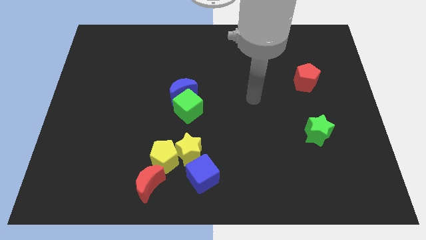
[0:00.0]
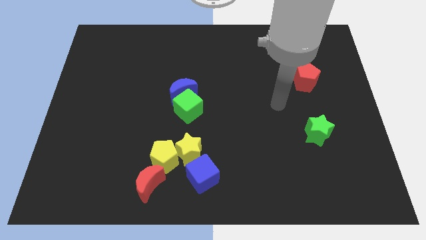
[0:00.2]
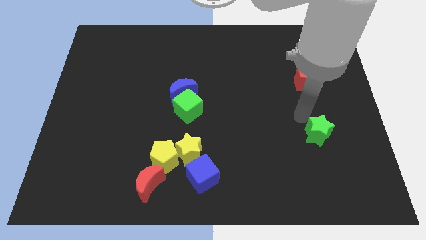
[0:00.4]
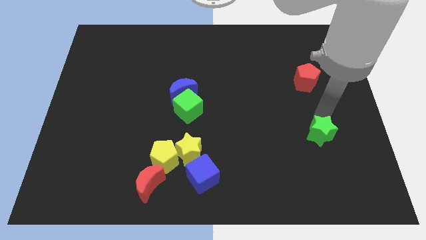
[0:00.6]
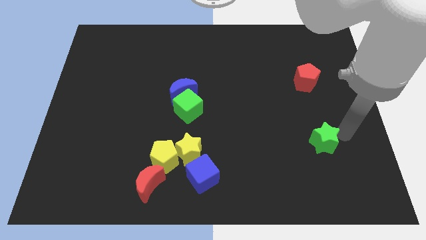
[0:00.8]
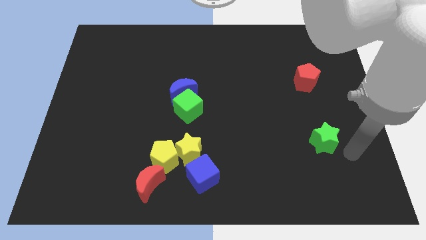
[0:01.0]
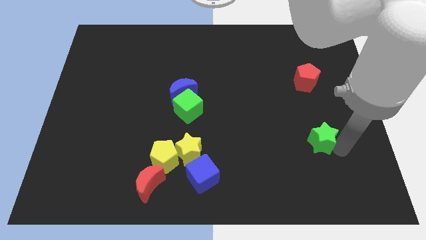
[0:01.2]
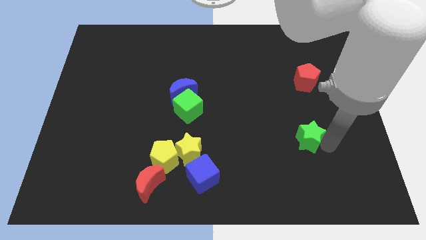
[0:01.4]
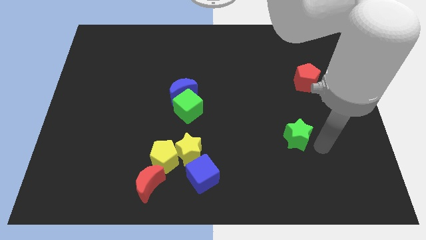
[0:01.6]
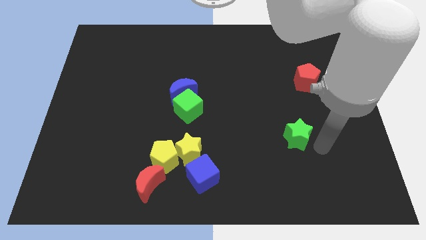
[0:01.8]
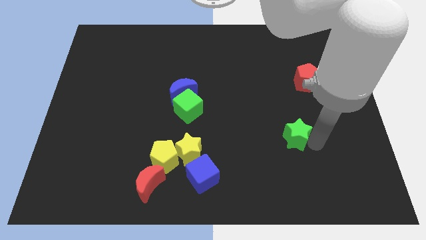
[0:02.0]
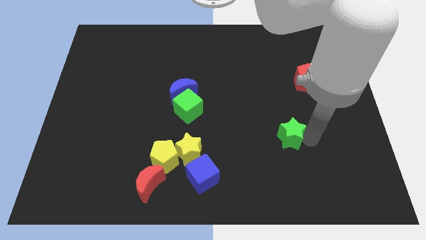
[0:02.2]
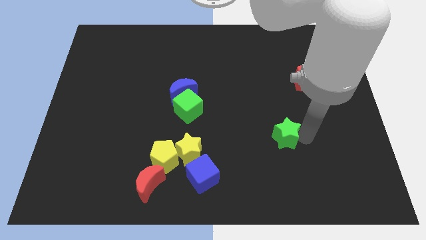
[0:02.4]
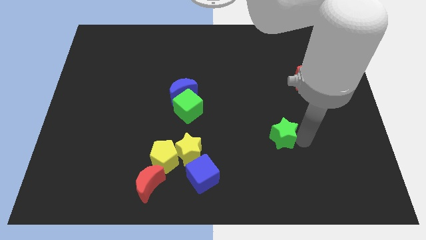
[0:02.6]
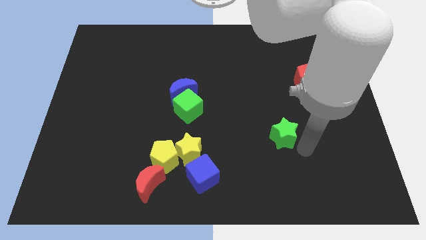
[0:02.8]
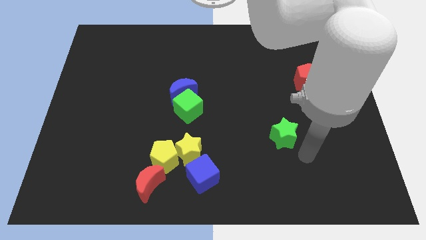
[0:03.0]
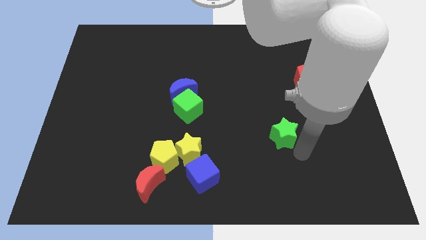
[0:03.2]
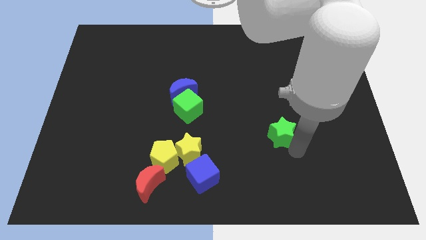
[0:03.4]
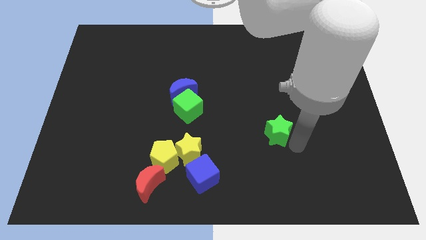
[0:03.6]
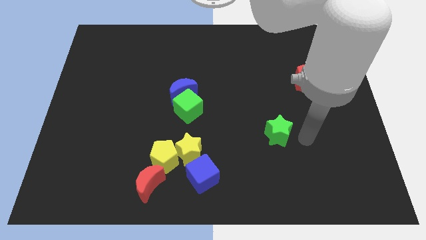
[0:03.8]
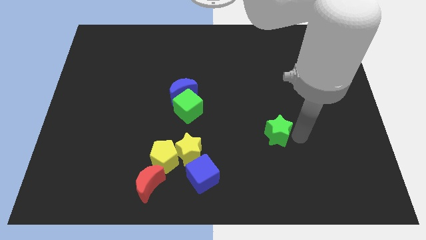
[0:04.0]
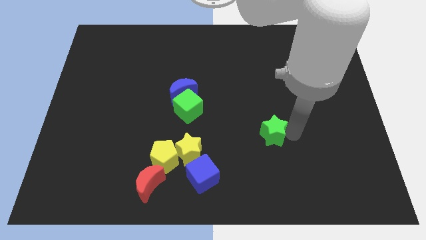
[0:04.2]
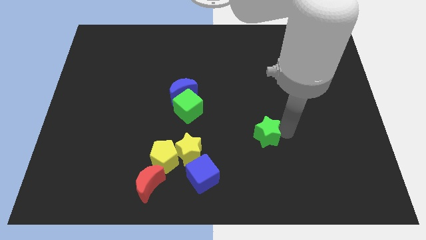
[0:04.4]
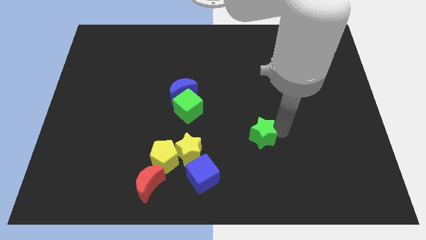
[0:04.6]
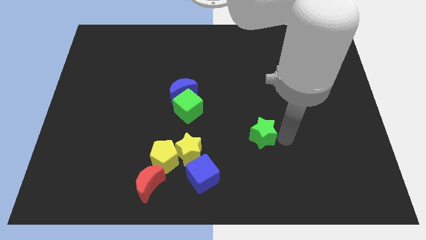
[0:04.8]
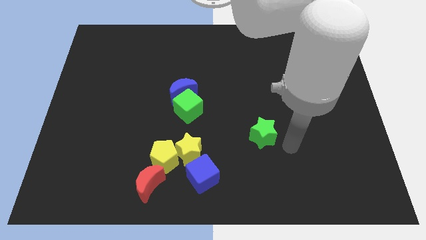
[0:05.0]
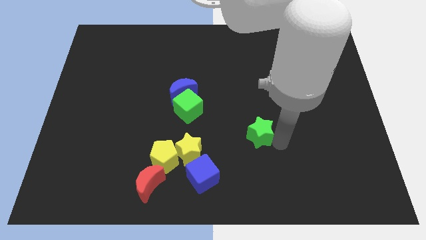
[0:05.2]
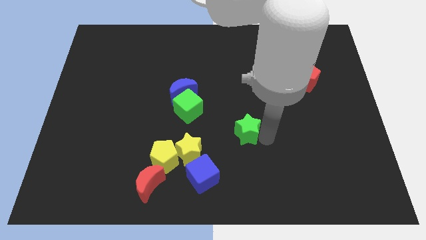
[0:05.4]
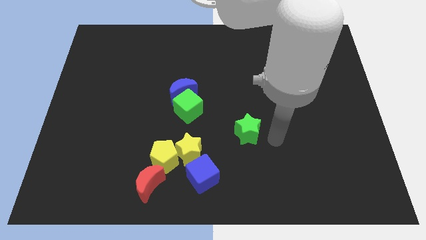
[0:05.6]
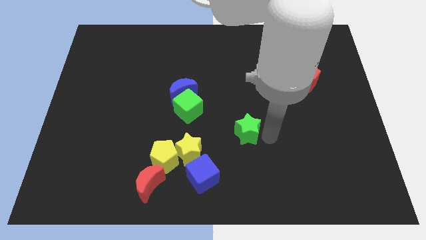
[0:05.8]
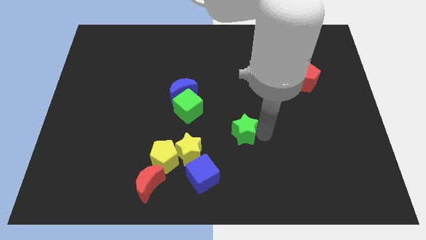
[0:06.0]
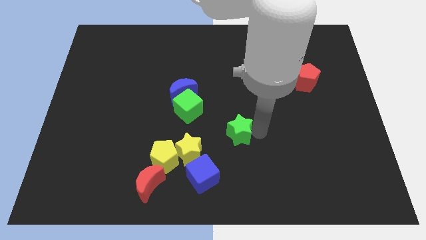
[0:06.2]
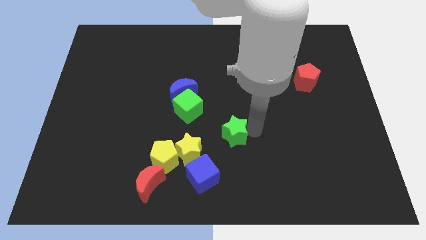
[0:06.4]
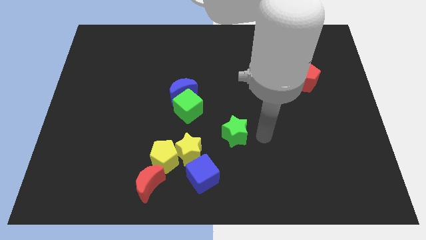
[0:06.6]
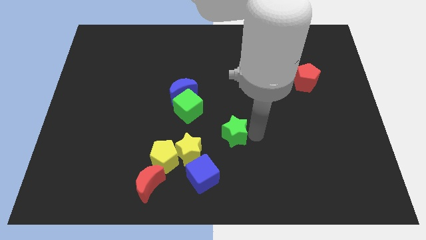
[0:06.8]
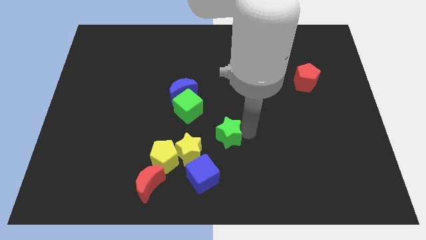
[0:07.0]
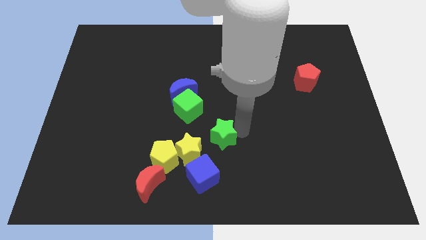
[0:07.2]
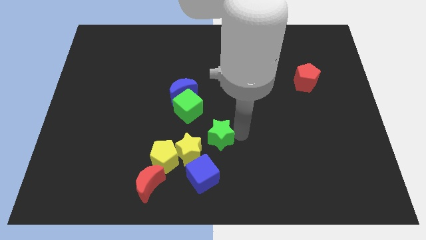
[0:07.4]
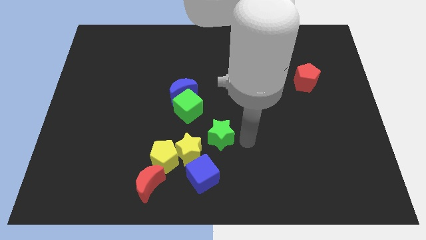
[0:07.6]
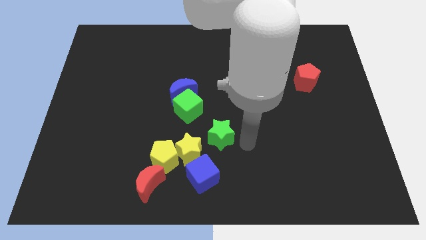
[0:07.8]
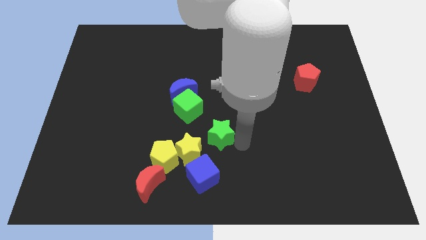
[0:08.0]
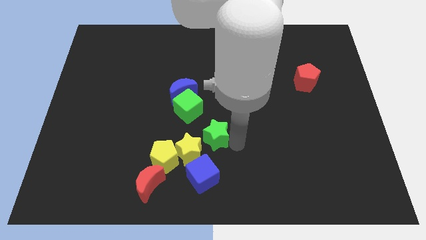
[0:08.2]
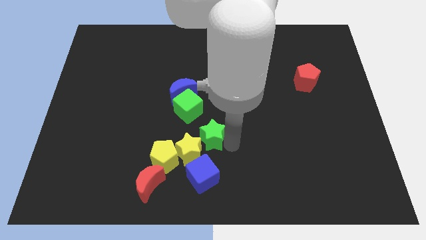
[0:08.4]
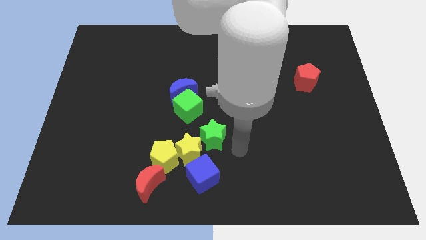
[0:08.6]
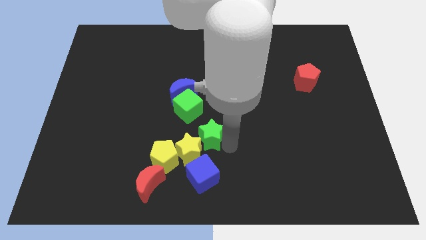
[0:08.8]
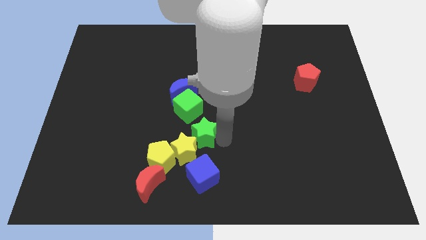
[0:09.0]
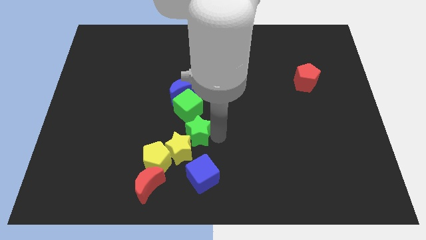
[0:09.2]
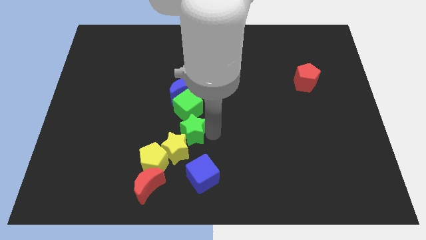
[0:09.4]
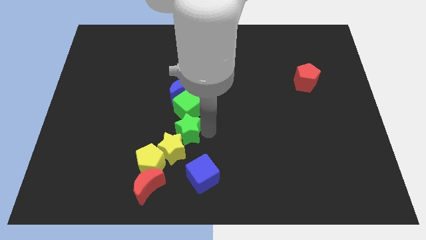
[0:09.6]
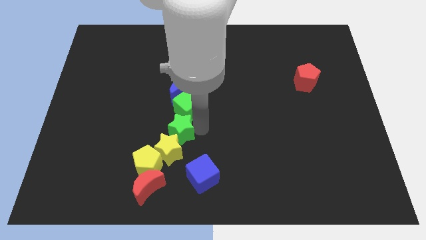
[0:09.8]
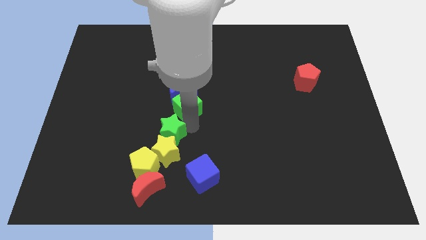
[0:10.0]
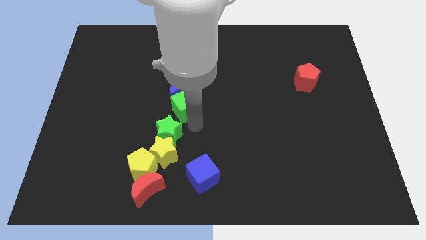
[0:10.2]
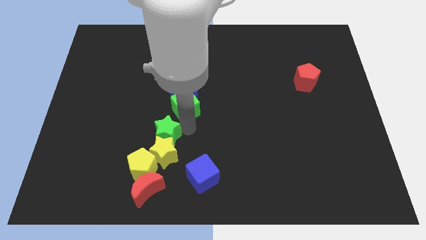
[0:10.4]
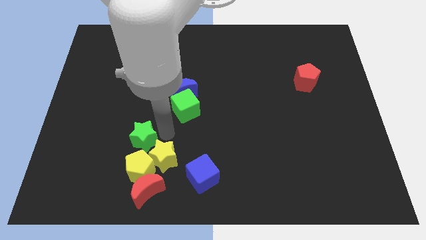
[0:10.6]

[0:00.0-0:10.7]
move the green star left of the yellow star

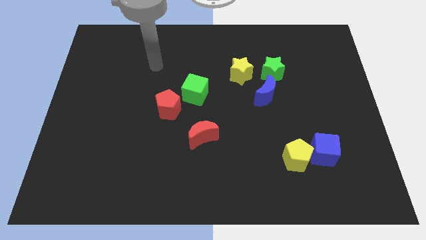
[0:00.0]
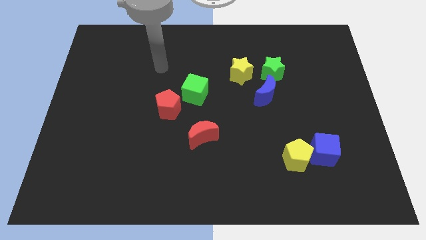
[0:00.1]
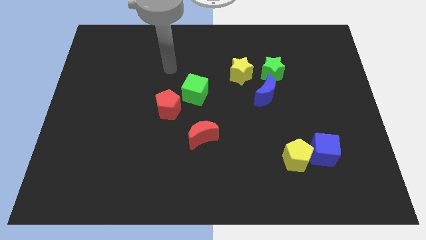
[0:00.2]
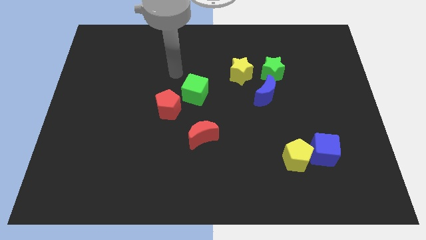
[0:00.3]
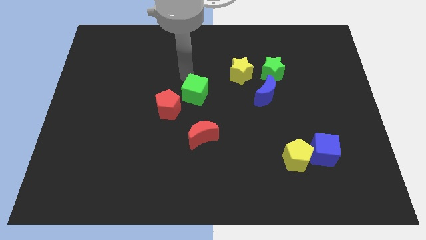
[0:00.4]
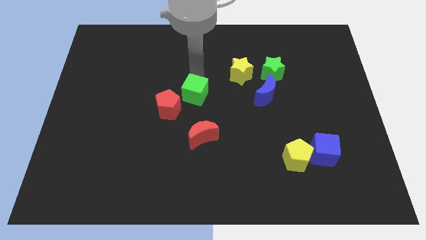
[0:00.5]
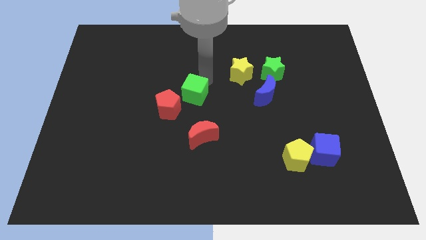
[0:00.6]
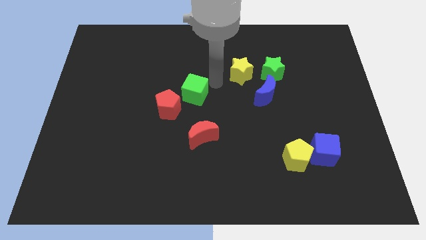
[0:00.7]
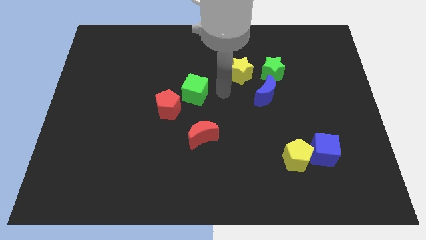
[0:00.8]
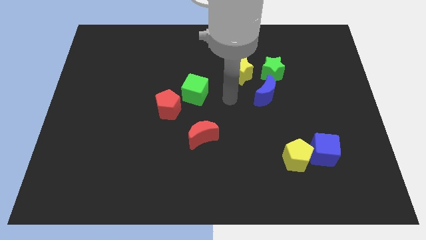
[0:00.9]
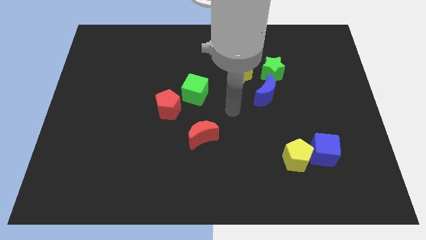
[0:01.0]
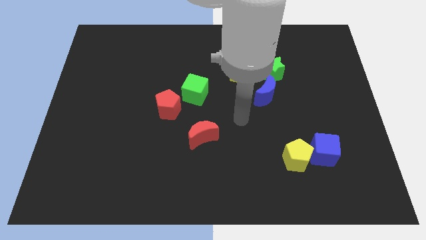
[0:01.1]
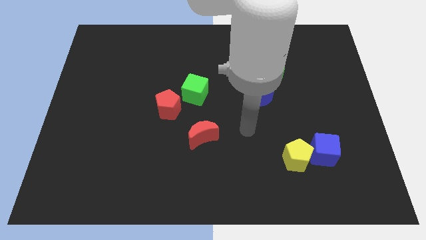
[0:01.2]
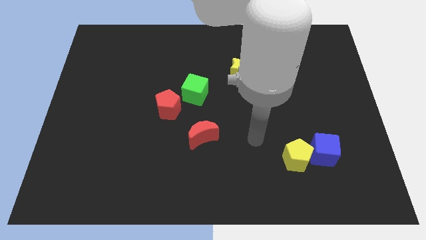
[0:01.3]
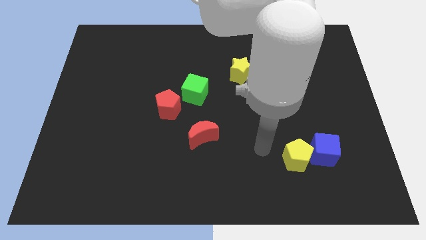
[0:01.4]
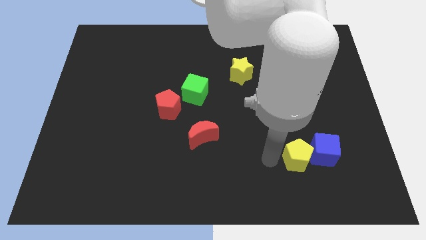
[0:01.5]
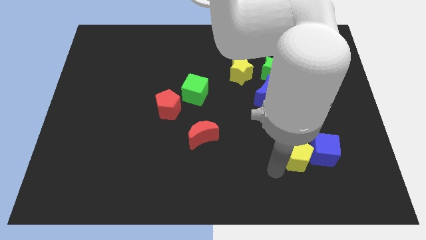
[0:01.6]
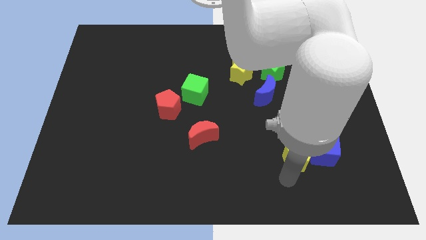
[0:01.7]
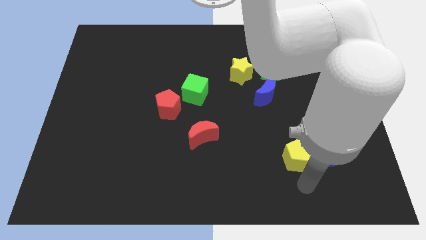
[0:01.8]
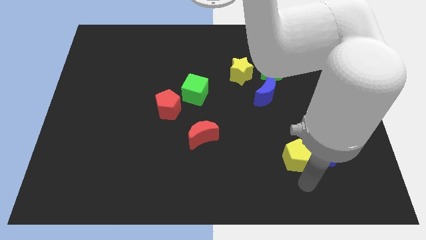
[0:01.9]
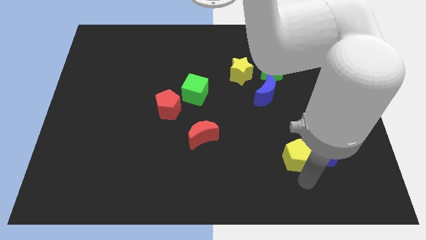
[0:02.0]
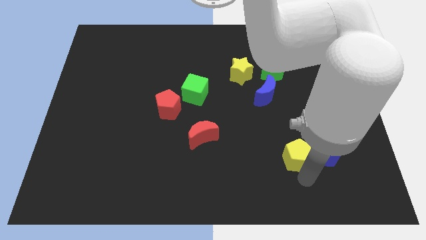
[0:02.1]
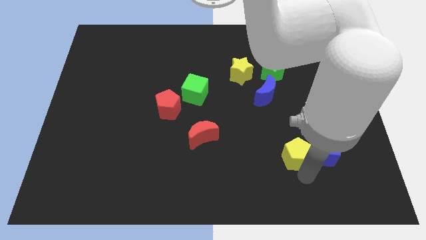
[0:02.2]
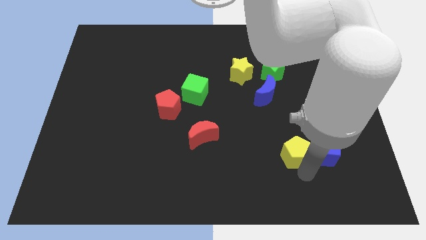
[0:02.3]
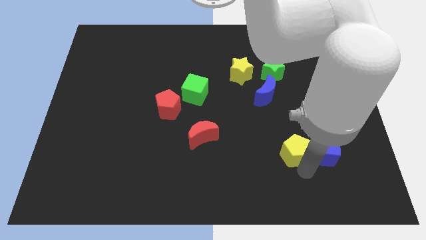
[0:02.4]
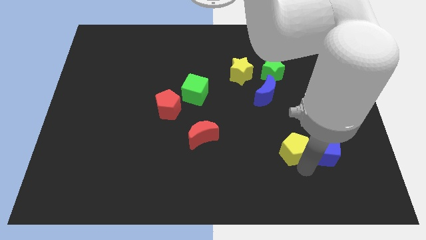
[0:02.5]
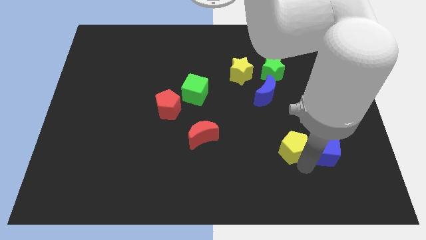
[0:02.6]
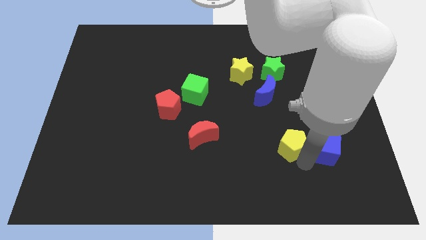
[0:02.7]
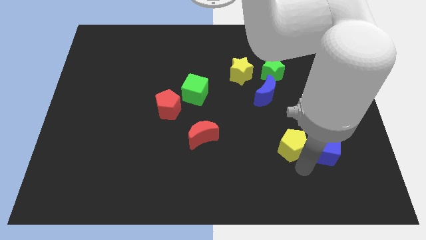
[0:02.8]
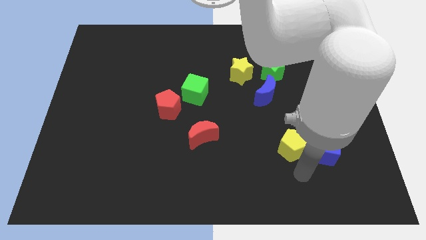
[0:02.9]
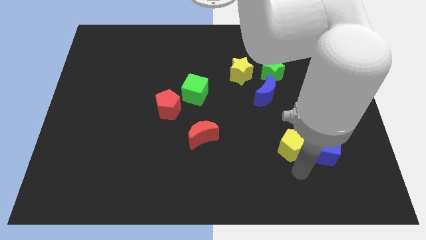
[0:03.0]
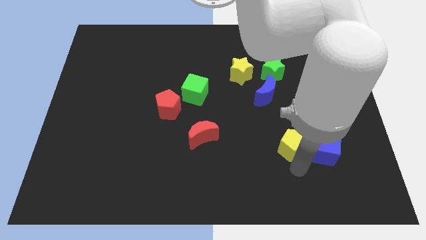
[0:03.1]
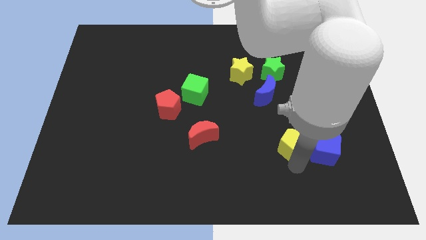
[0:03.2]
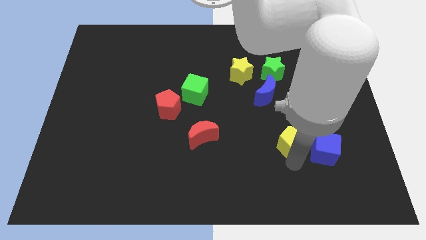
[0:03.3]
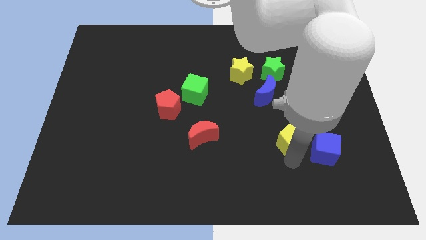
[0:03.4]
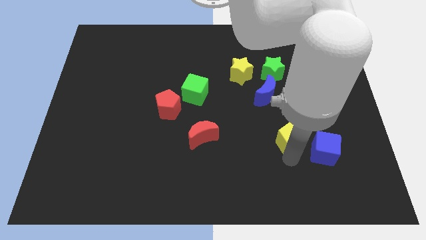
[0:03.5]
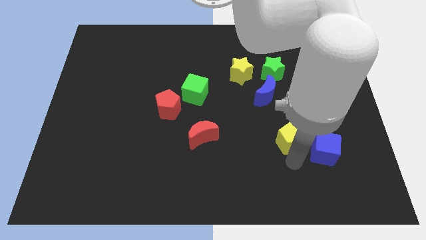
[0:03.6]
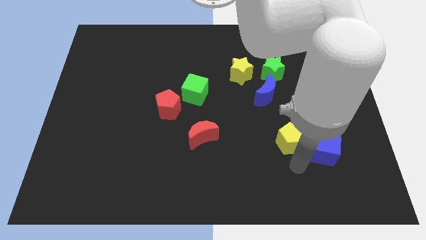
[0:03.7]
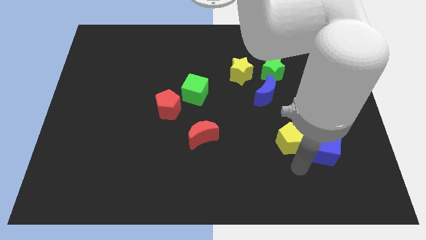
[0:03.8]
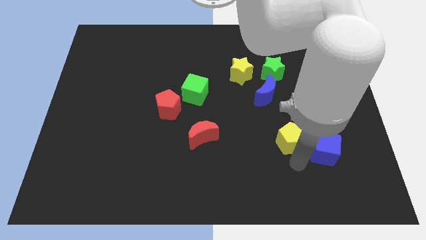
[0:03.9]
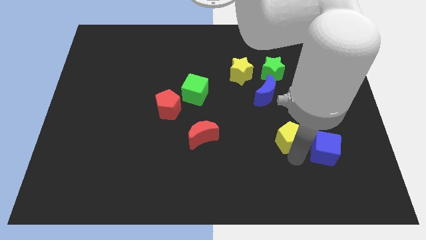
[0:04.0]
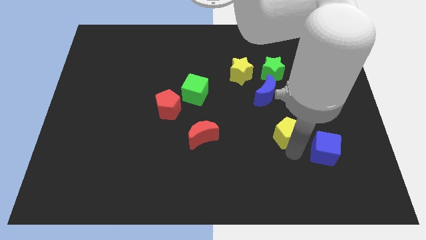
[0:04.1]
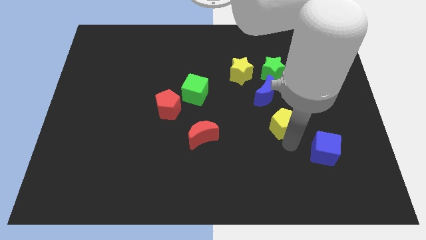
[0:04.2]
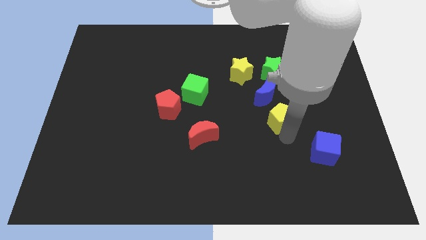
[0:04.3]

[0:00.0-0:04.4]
put the yellow pentagon to the bottom side of the green star
